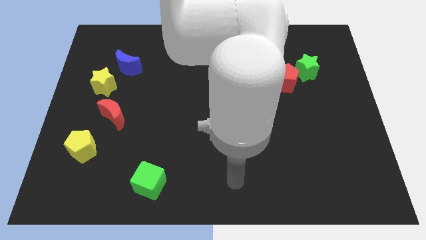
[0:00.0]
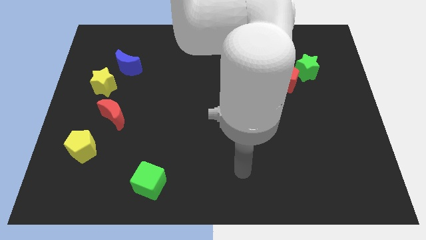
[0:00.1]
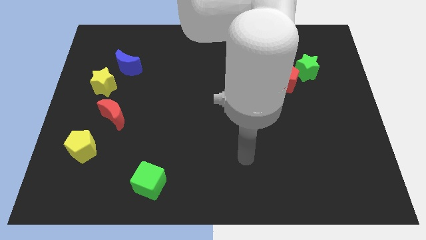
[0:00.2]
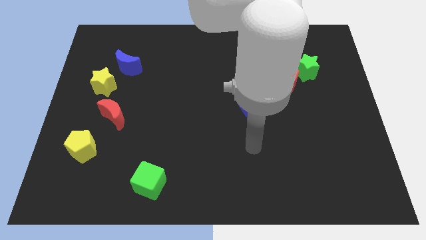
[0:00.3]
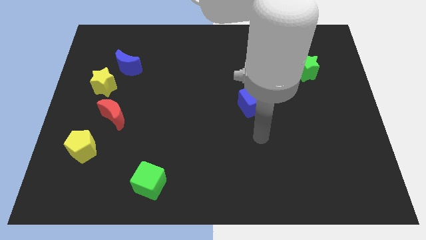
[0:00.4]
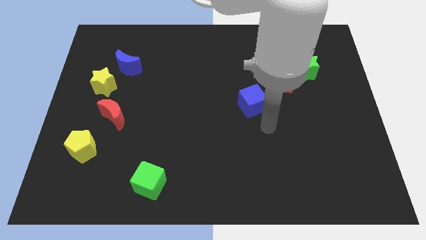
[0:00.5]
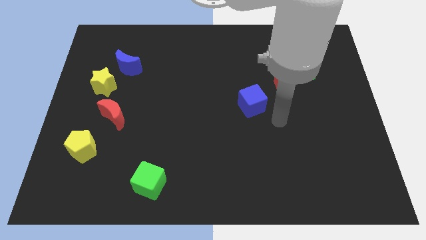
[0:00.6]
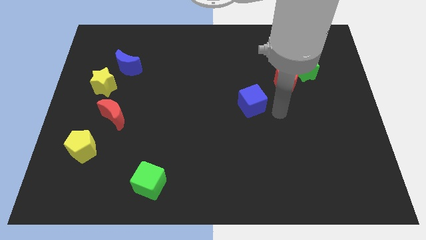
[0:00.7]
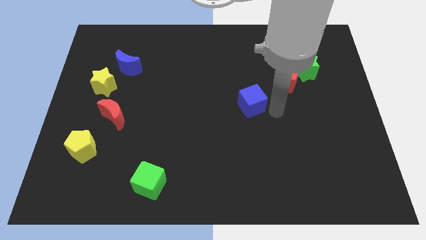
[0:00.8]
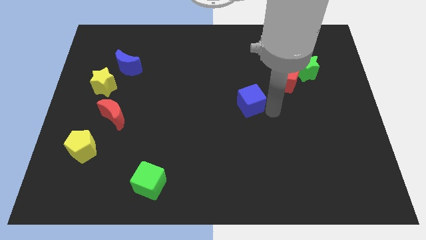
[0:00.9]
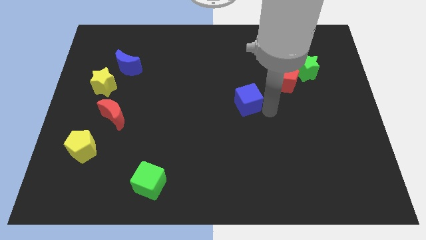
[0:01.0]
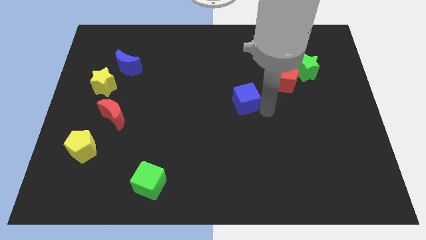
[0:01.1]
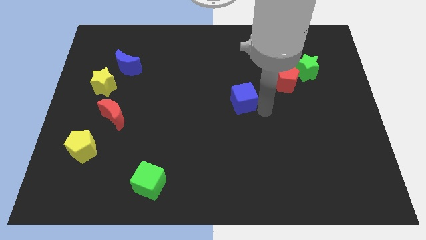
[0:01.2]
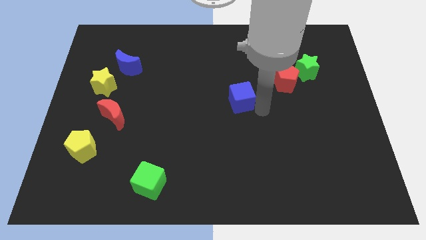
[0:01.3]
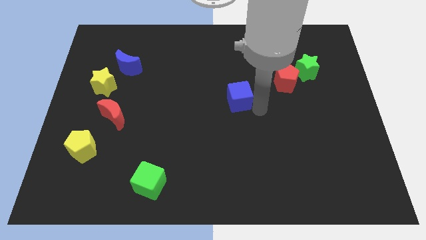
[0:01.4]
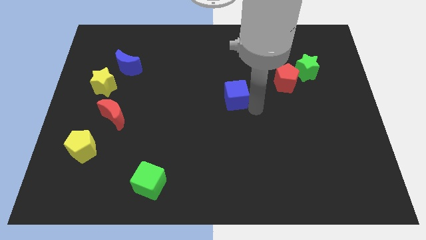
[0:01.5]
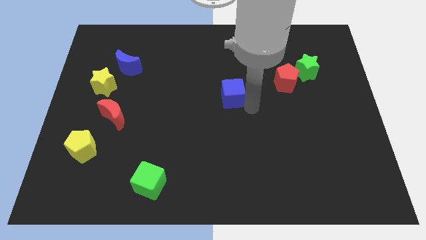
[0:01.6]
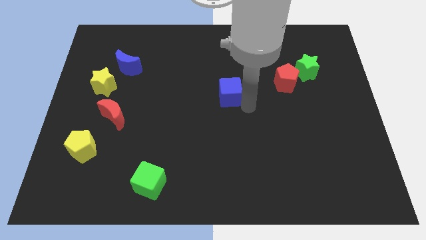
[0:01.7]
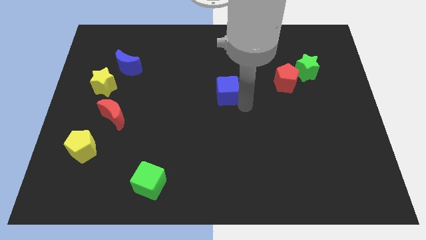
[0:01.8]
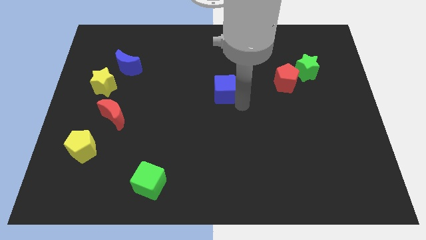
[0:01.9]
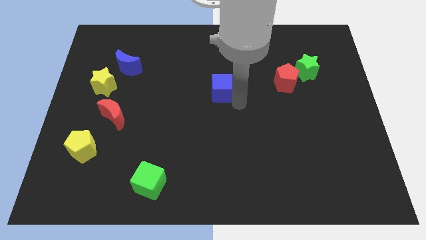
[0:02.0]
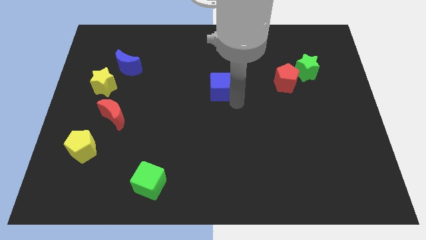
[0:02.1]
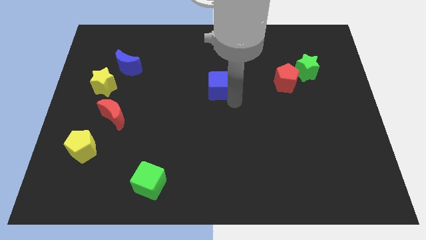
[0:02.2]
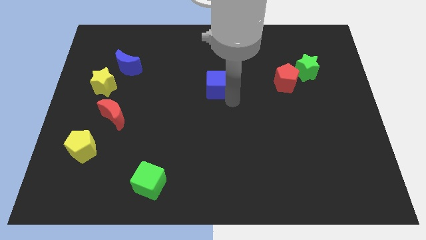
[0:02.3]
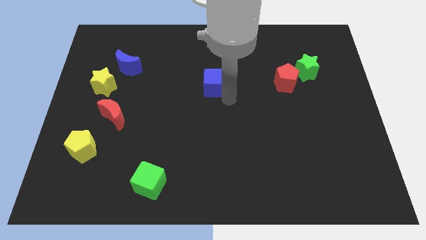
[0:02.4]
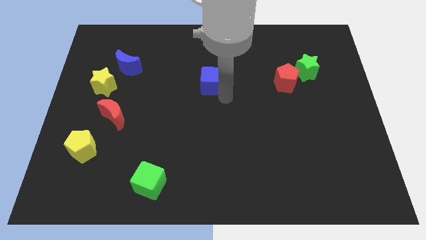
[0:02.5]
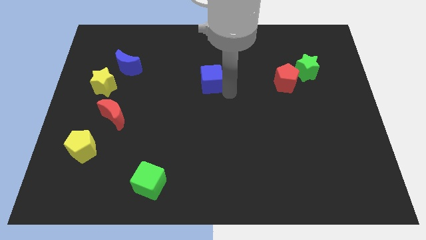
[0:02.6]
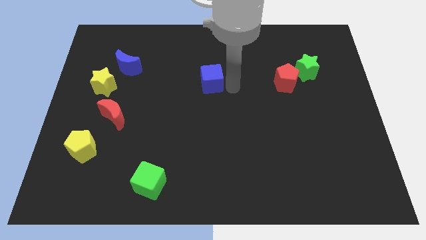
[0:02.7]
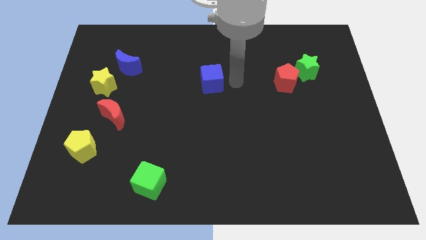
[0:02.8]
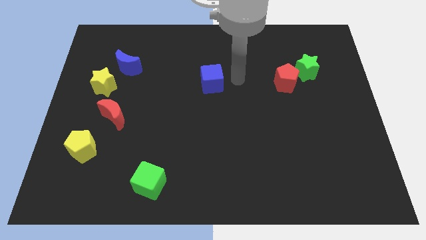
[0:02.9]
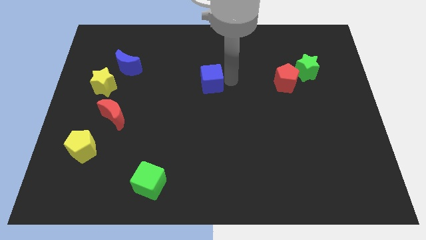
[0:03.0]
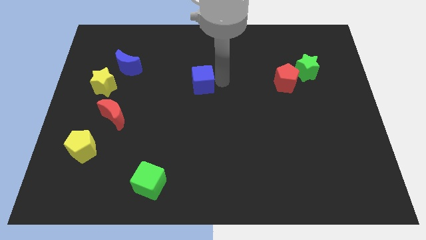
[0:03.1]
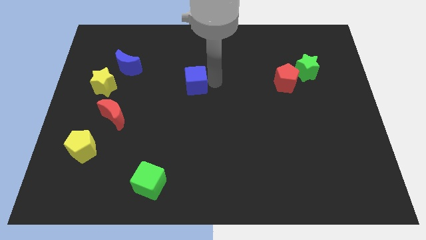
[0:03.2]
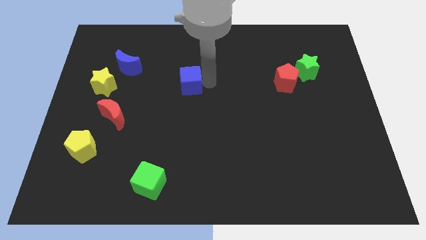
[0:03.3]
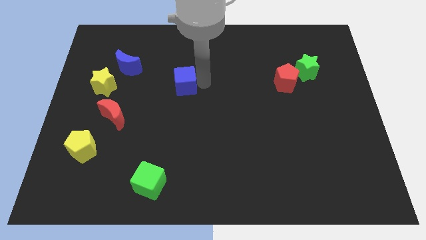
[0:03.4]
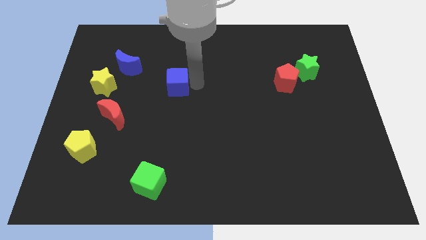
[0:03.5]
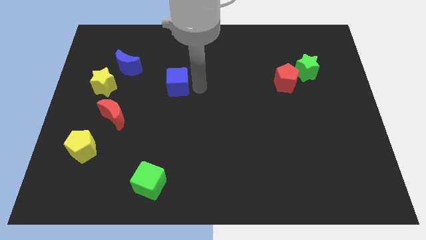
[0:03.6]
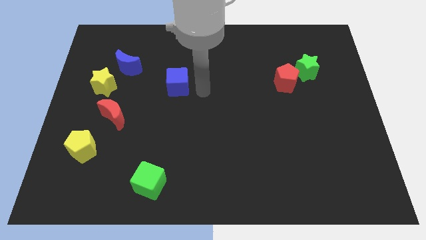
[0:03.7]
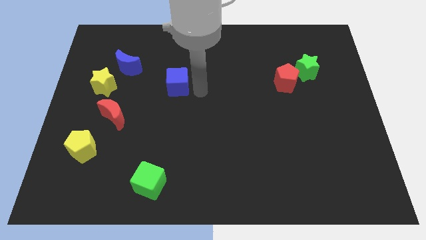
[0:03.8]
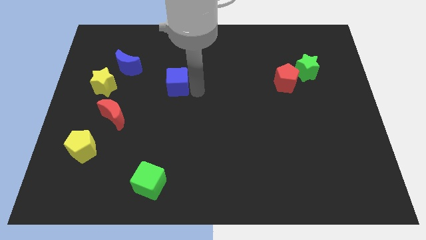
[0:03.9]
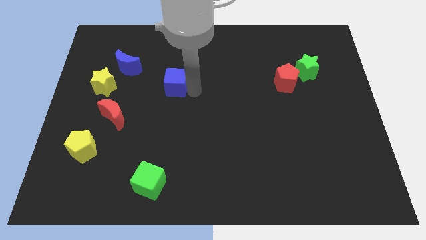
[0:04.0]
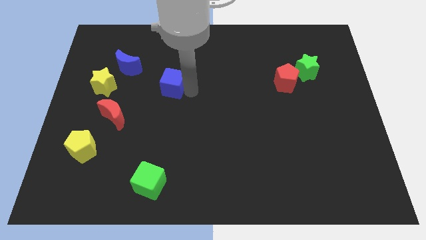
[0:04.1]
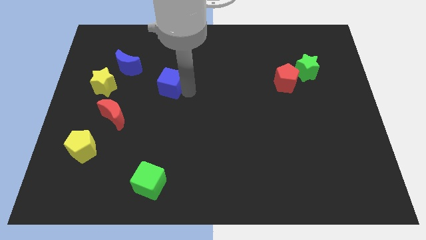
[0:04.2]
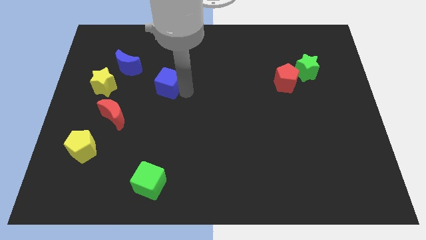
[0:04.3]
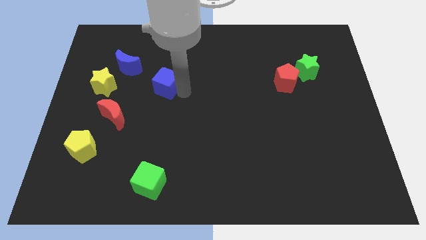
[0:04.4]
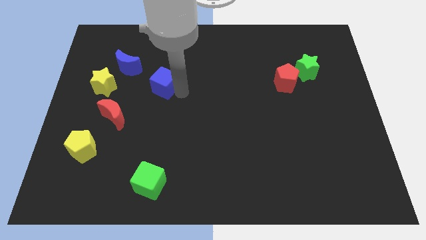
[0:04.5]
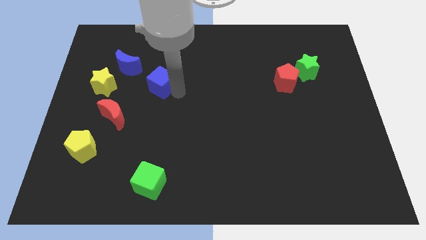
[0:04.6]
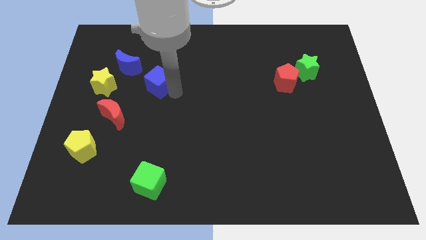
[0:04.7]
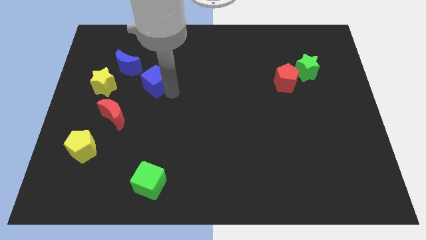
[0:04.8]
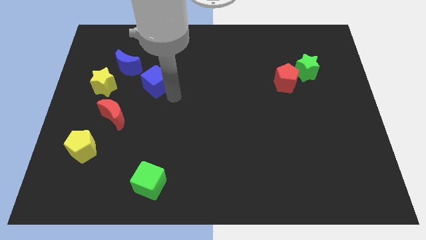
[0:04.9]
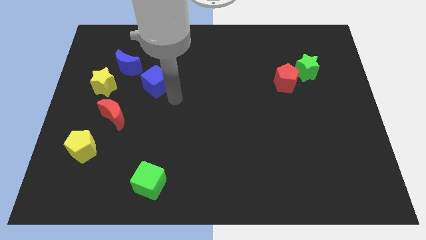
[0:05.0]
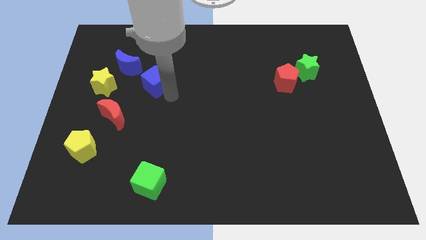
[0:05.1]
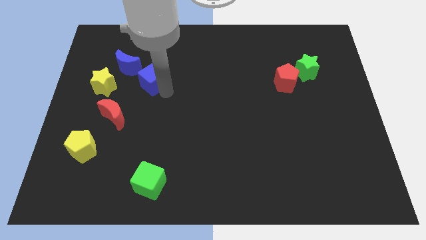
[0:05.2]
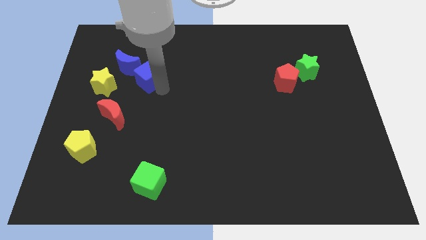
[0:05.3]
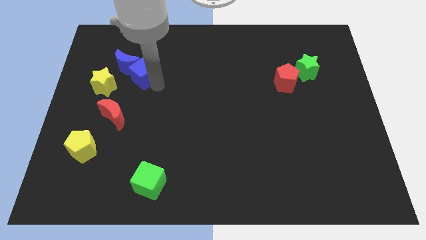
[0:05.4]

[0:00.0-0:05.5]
push the blue cube to the blue moon

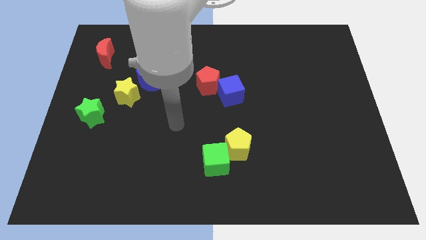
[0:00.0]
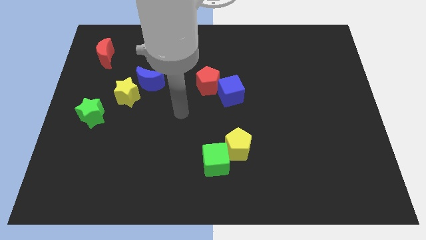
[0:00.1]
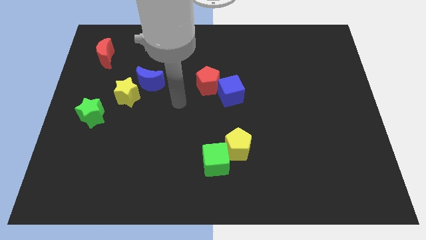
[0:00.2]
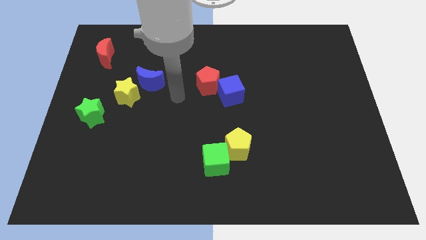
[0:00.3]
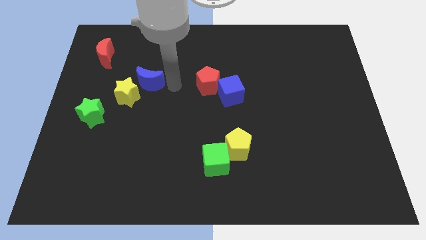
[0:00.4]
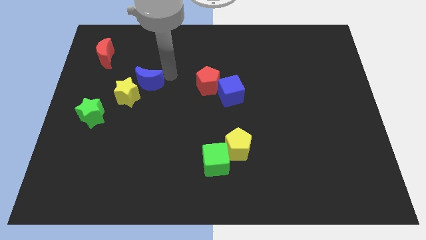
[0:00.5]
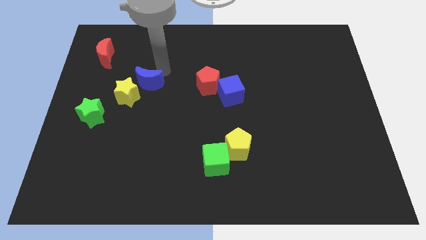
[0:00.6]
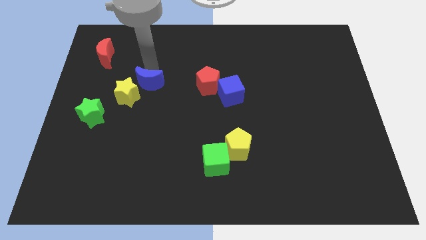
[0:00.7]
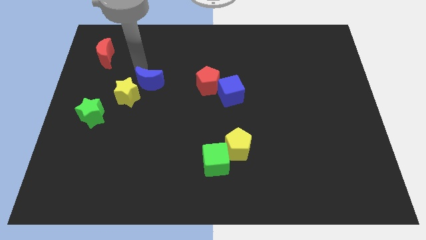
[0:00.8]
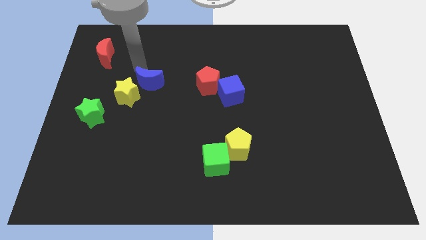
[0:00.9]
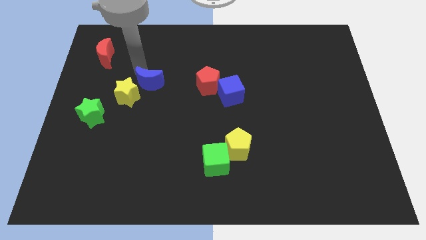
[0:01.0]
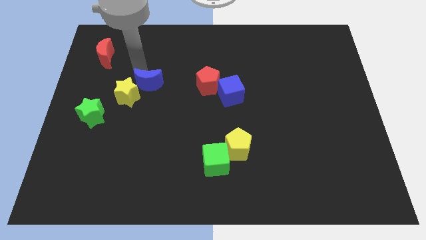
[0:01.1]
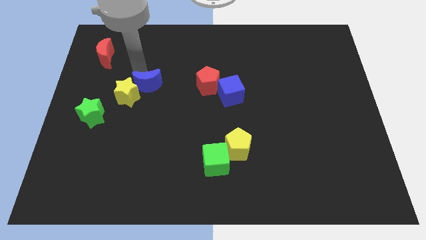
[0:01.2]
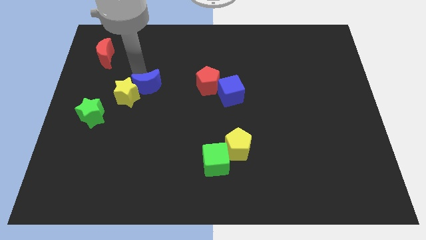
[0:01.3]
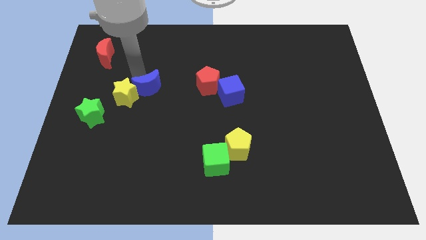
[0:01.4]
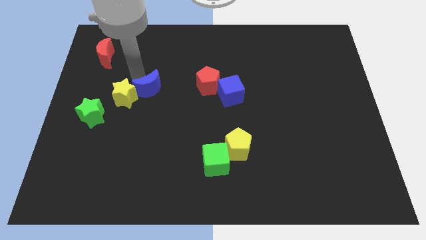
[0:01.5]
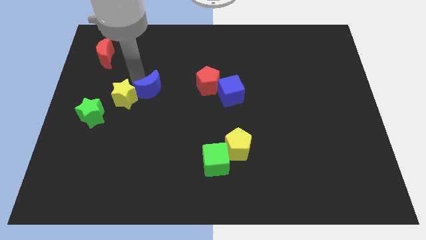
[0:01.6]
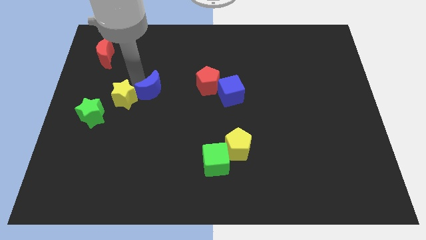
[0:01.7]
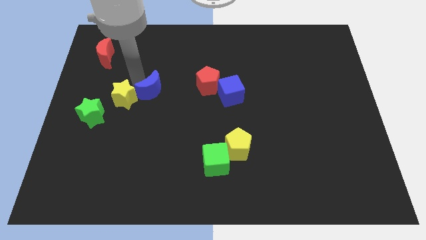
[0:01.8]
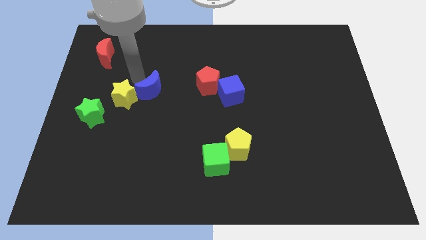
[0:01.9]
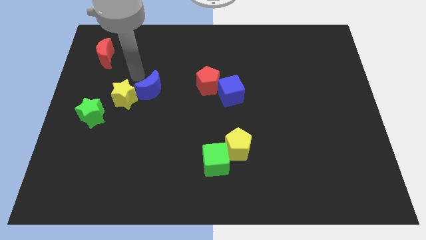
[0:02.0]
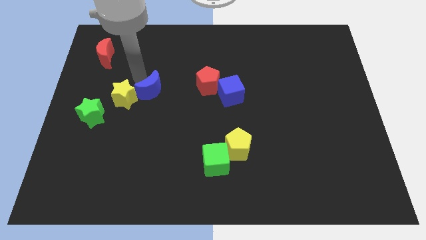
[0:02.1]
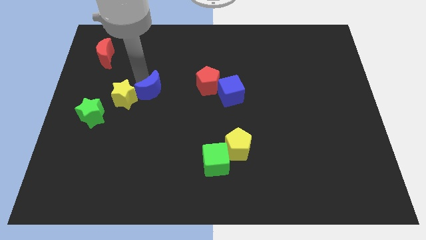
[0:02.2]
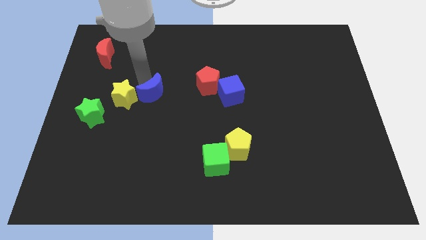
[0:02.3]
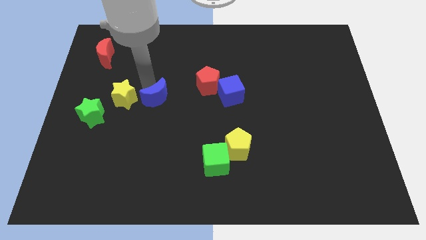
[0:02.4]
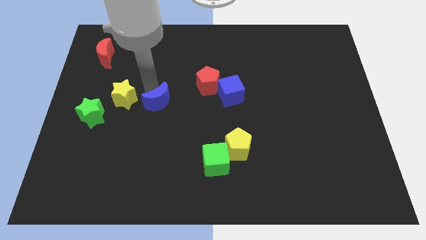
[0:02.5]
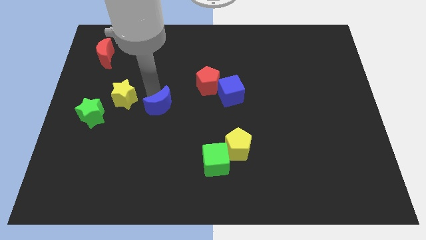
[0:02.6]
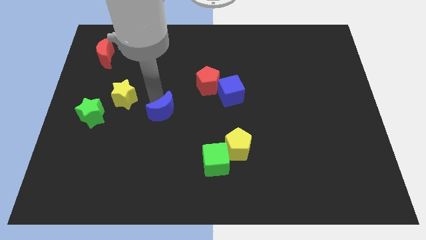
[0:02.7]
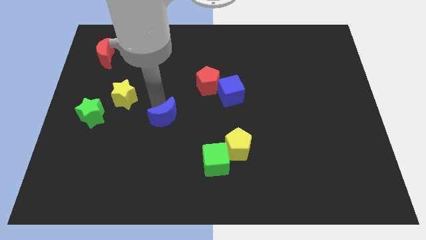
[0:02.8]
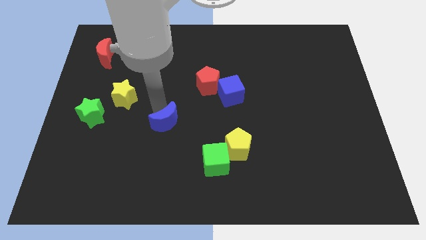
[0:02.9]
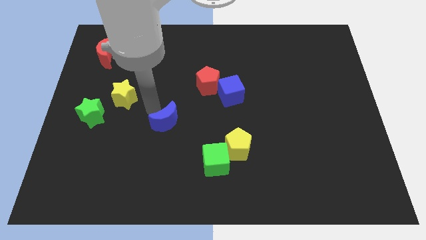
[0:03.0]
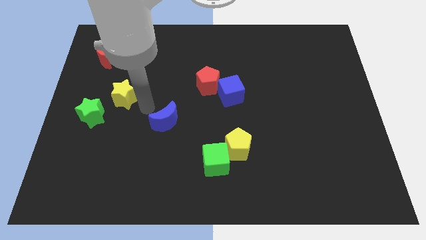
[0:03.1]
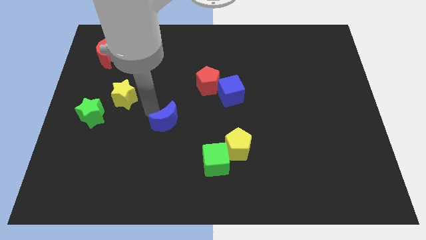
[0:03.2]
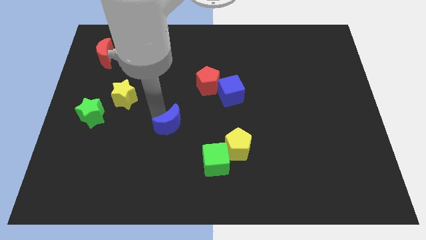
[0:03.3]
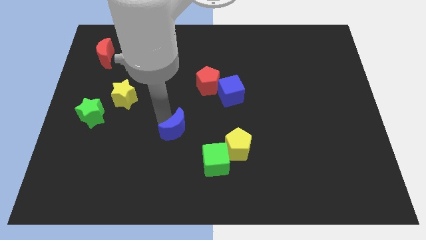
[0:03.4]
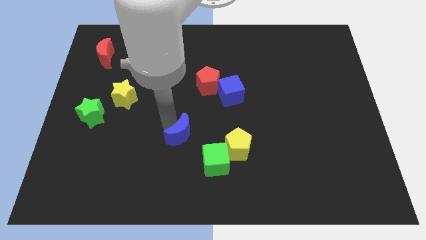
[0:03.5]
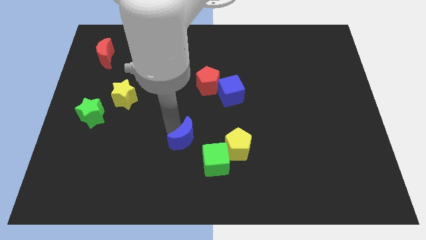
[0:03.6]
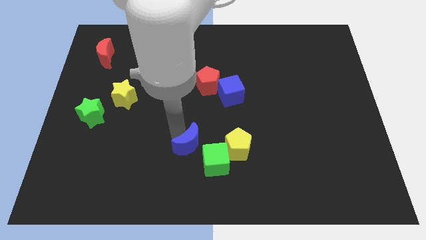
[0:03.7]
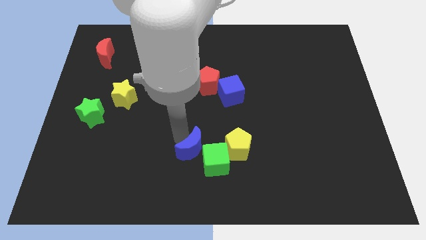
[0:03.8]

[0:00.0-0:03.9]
move the blue moon to the green cube
